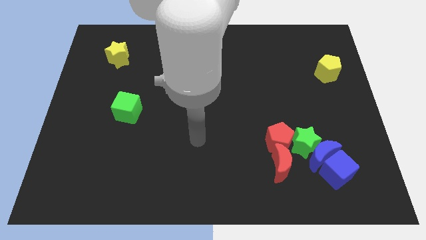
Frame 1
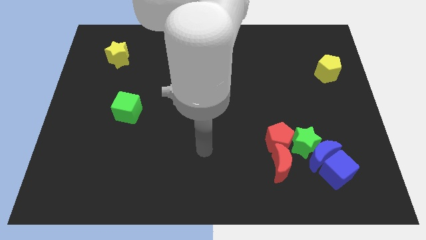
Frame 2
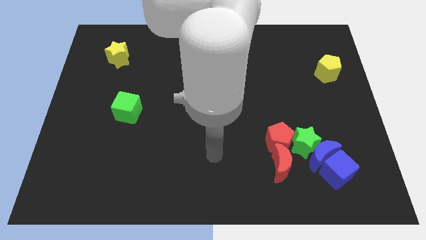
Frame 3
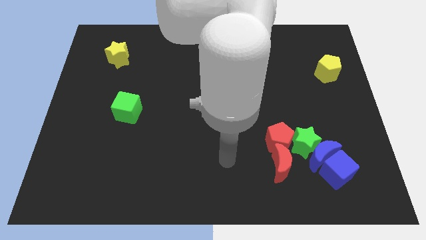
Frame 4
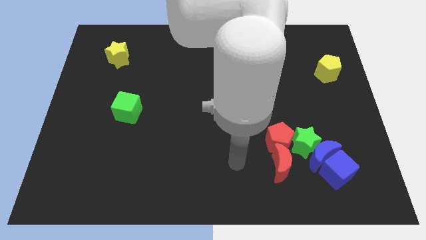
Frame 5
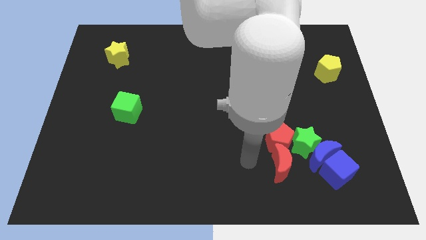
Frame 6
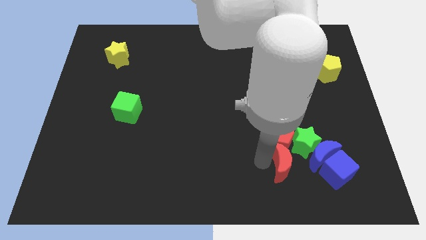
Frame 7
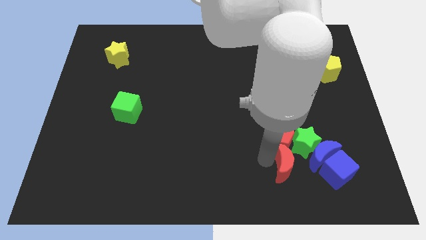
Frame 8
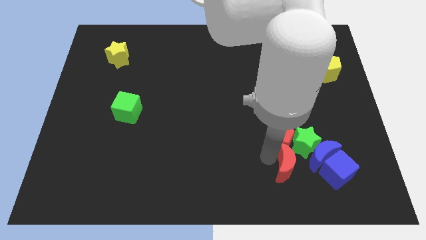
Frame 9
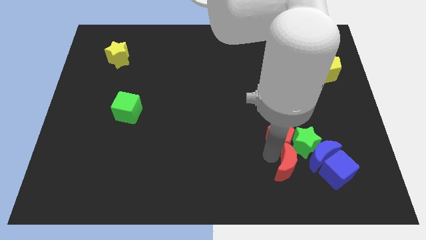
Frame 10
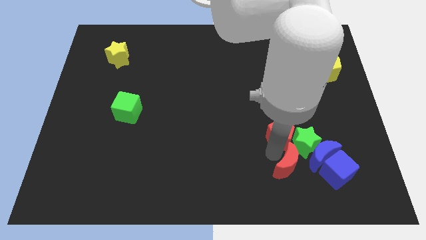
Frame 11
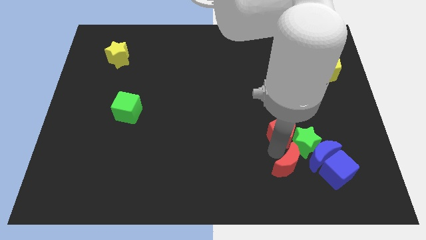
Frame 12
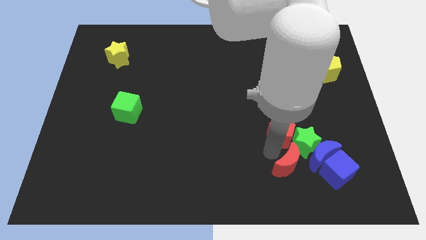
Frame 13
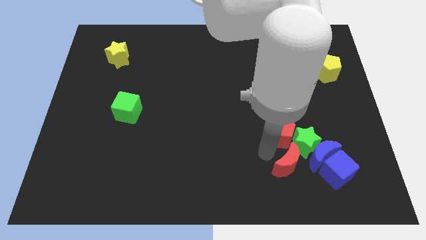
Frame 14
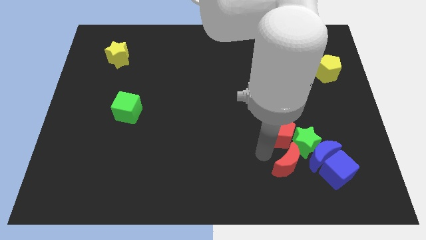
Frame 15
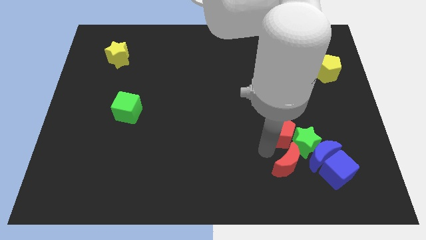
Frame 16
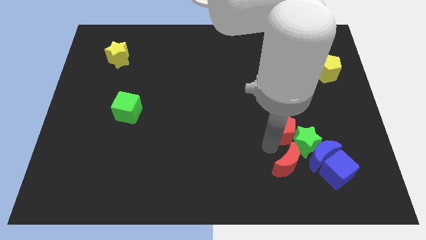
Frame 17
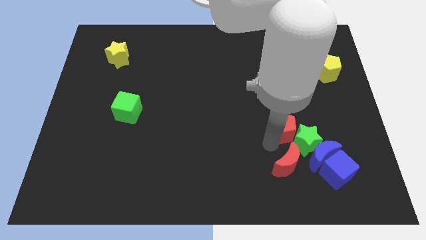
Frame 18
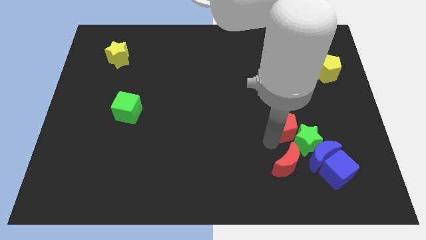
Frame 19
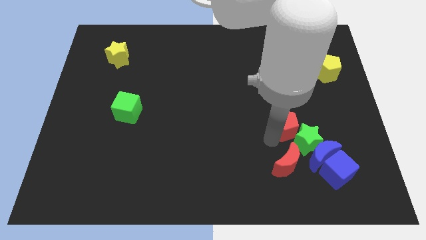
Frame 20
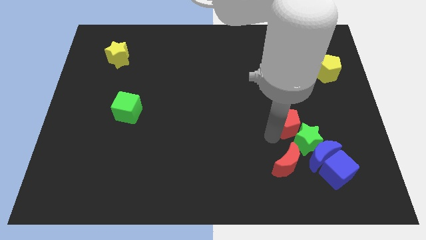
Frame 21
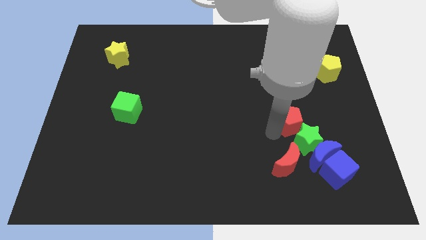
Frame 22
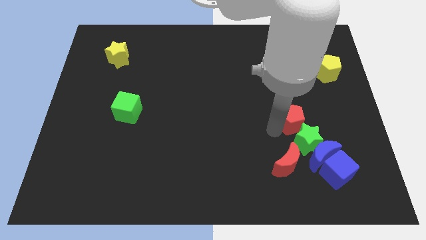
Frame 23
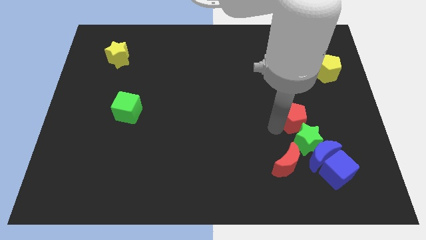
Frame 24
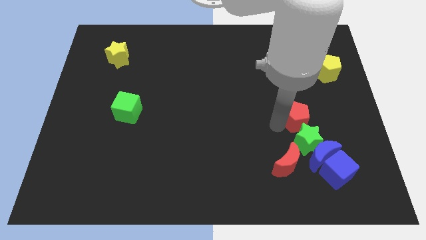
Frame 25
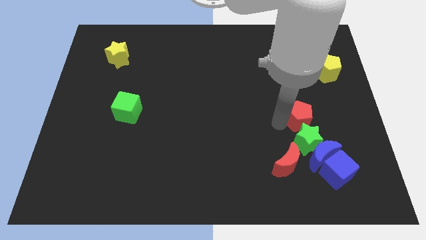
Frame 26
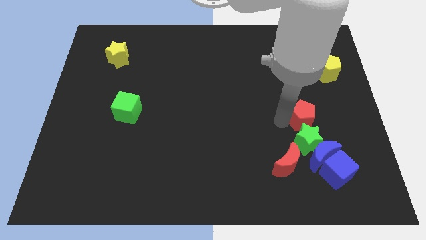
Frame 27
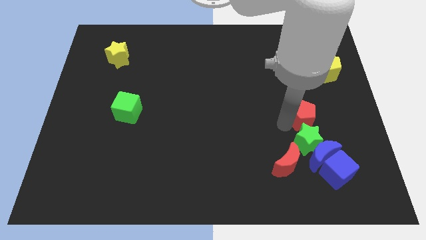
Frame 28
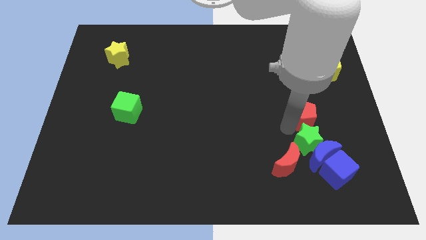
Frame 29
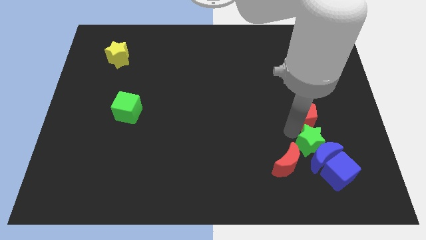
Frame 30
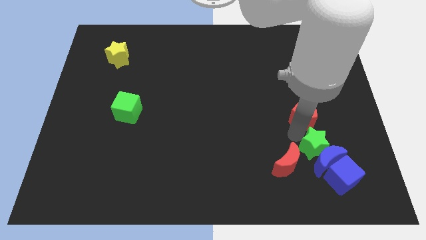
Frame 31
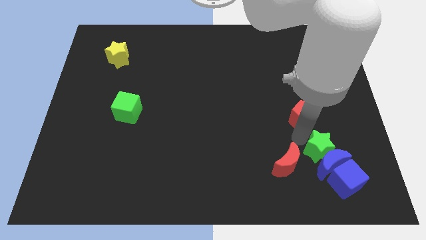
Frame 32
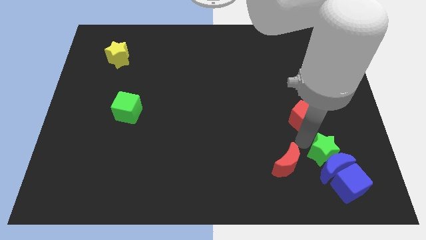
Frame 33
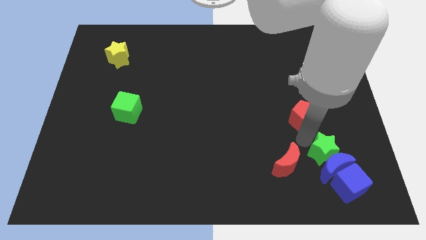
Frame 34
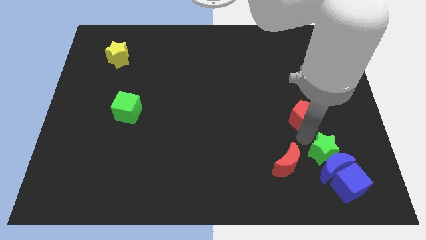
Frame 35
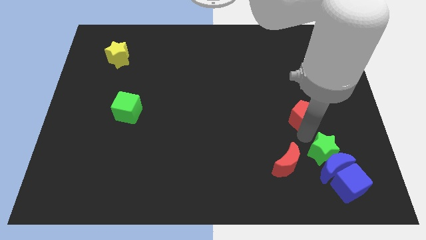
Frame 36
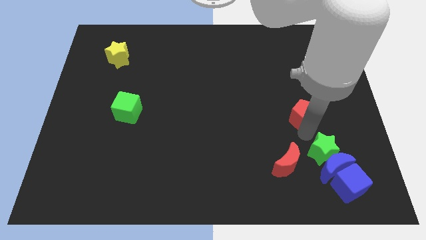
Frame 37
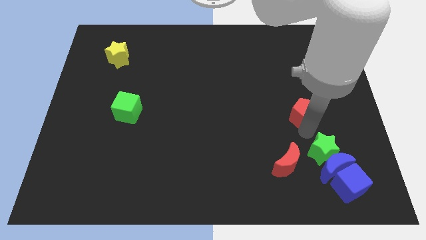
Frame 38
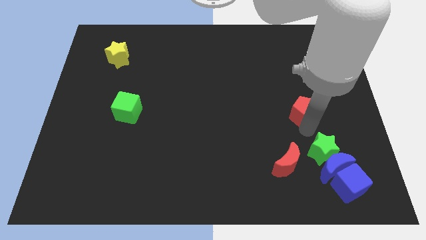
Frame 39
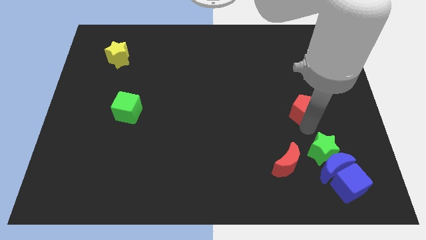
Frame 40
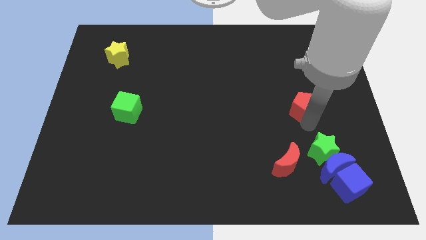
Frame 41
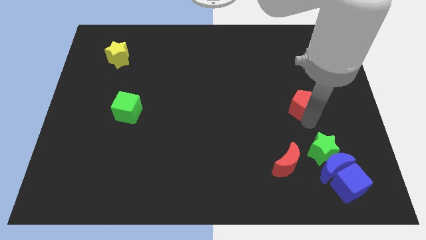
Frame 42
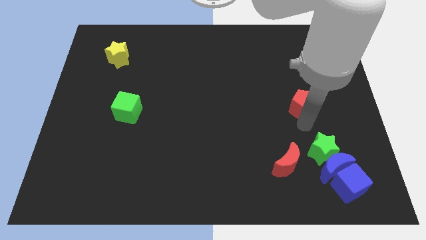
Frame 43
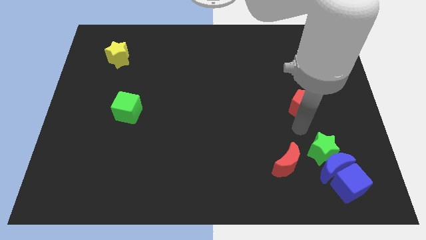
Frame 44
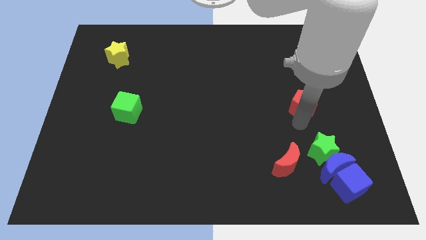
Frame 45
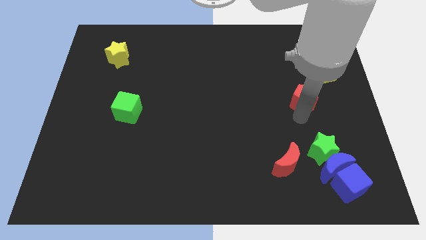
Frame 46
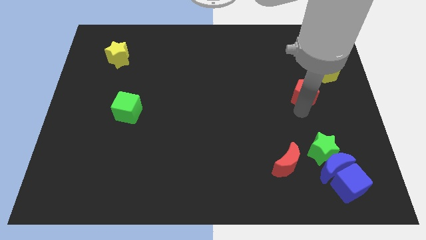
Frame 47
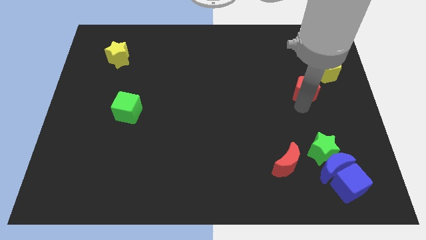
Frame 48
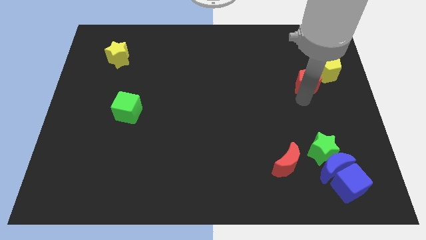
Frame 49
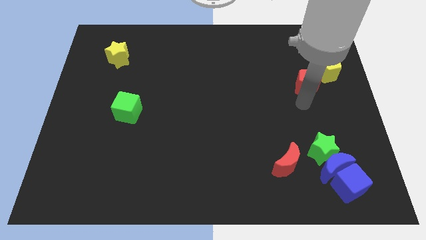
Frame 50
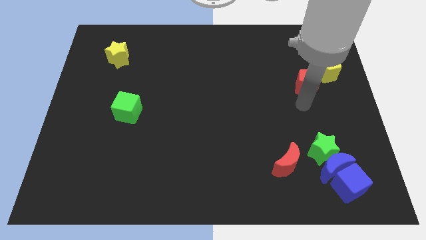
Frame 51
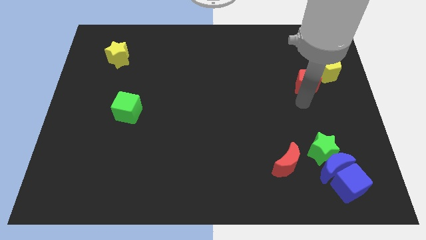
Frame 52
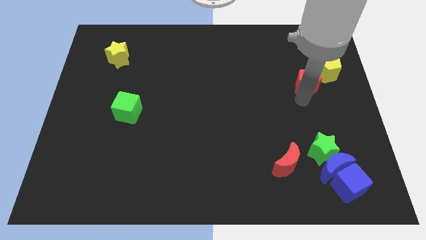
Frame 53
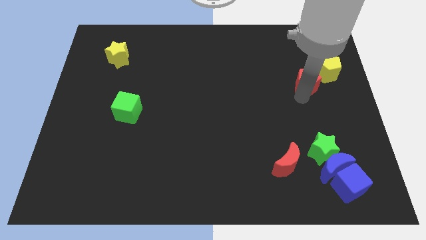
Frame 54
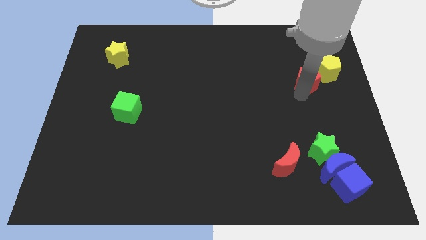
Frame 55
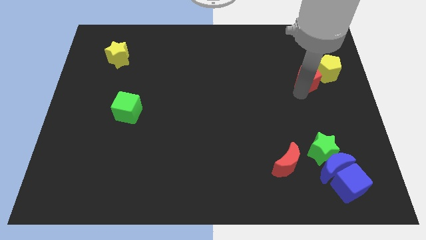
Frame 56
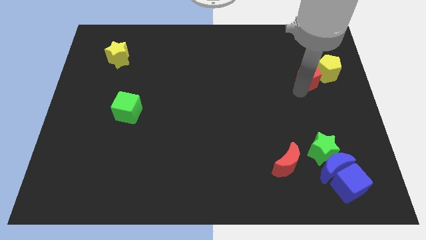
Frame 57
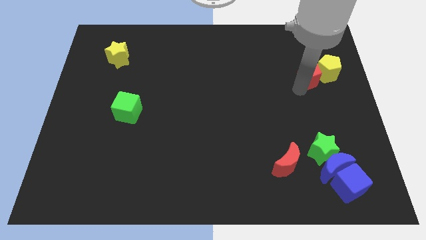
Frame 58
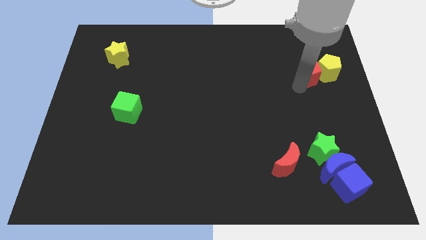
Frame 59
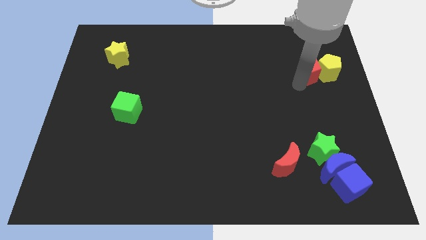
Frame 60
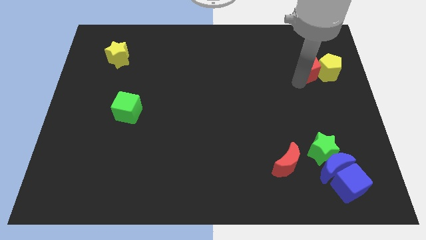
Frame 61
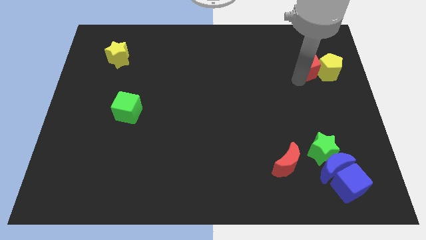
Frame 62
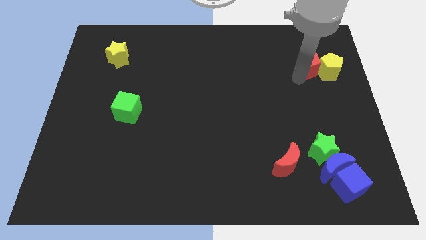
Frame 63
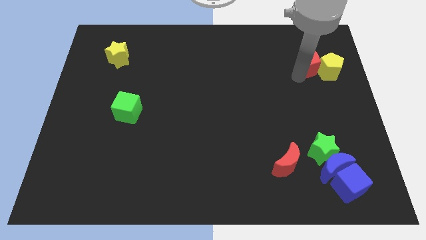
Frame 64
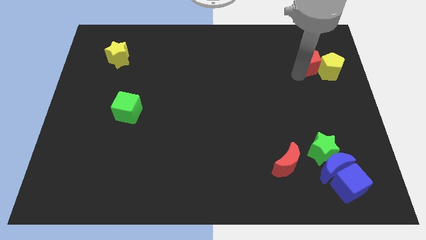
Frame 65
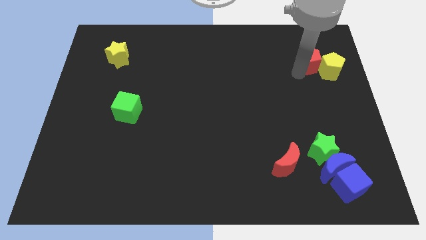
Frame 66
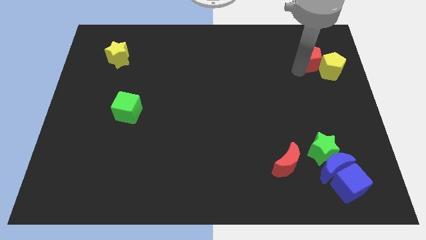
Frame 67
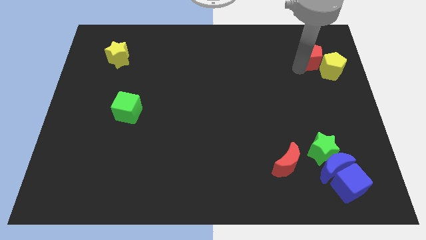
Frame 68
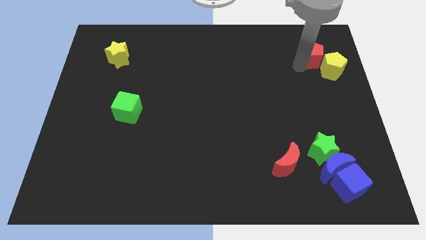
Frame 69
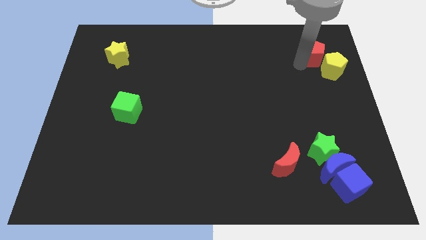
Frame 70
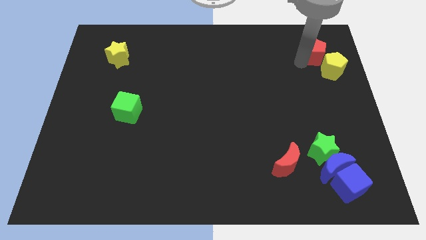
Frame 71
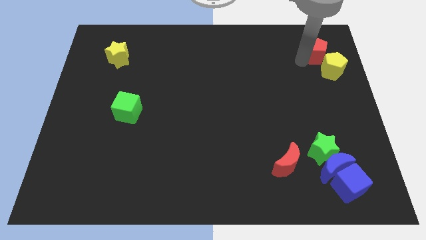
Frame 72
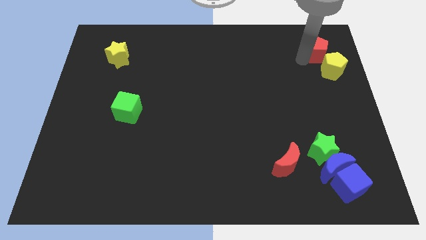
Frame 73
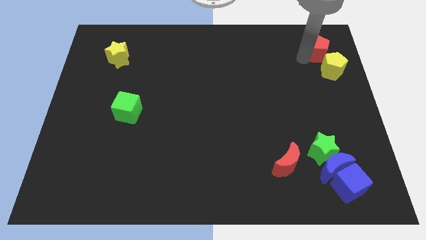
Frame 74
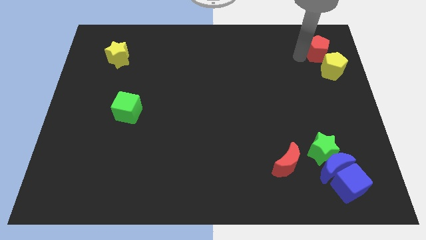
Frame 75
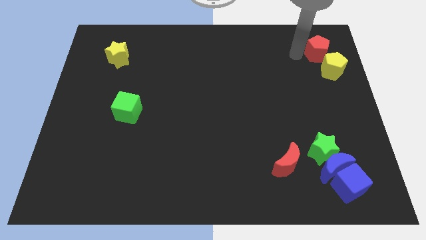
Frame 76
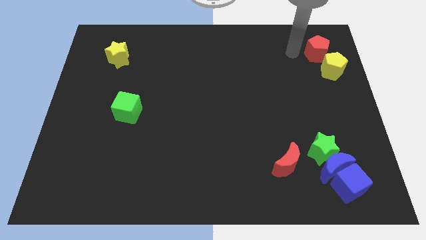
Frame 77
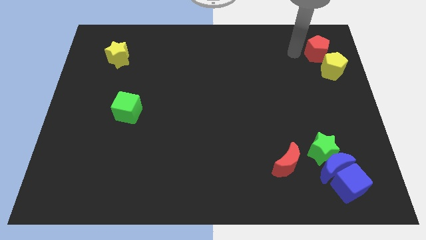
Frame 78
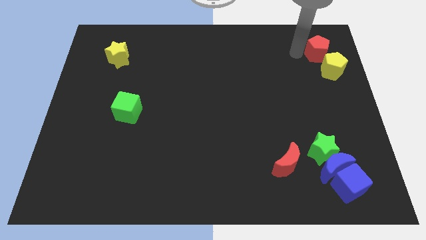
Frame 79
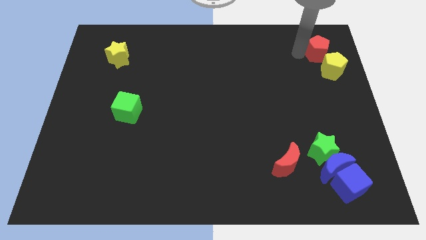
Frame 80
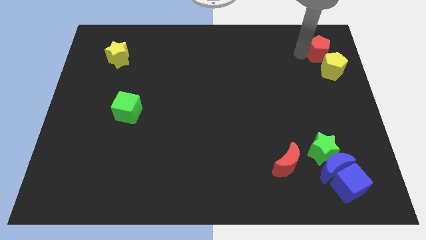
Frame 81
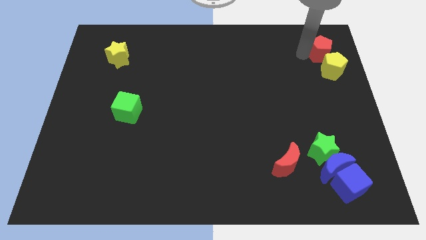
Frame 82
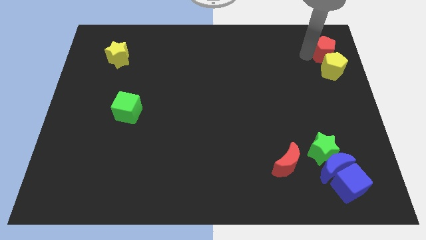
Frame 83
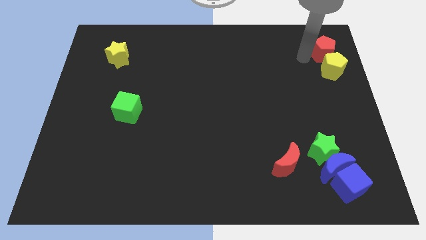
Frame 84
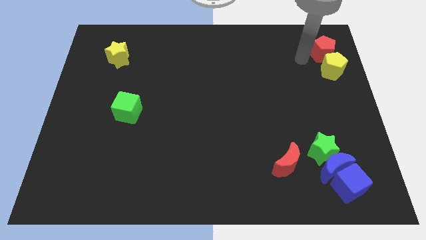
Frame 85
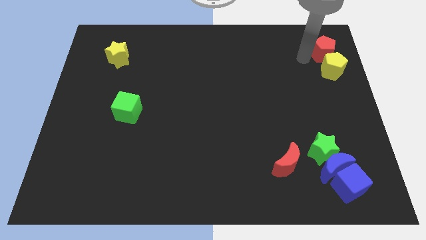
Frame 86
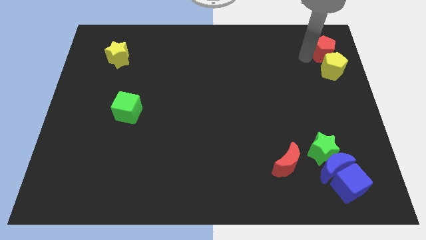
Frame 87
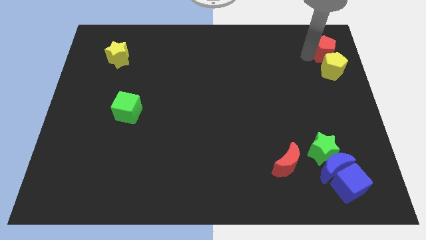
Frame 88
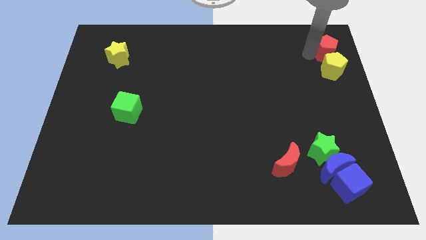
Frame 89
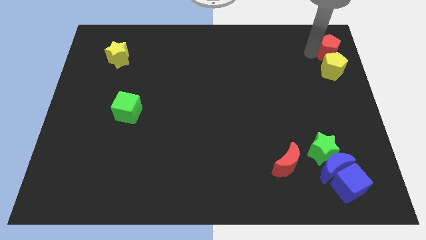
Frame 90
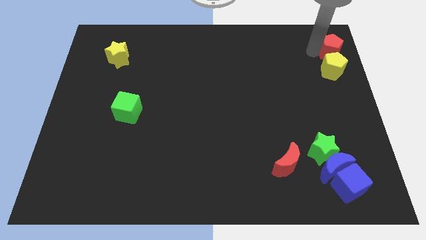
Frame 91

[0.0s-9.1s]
slide the red pentagon to the top right
